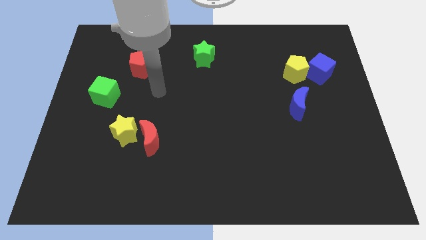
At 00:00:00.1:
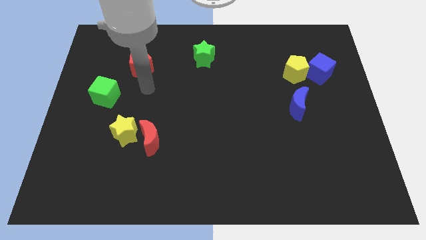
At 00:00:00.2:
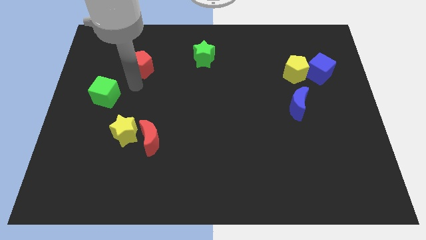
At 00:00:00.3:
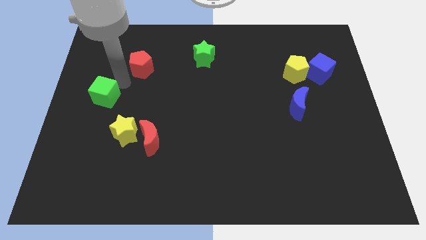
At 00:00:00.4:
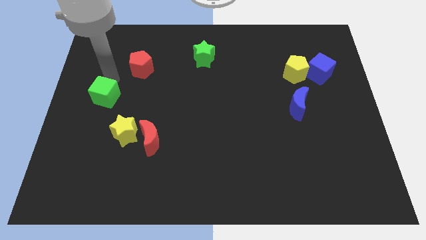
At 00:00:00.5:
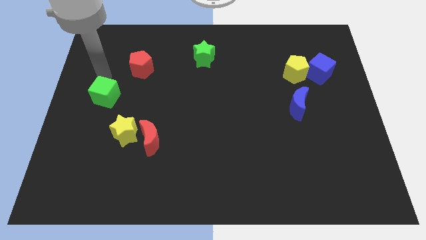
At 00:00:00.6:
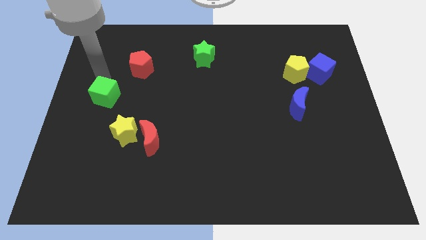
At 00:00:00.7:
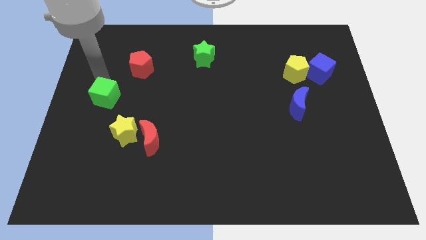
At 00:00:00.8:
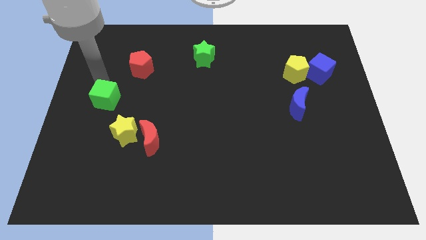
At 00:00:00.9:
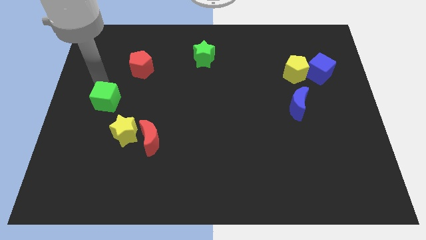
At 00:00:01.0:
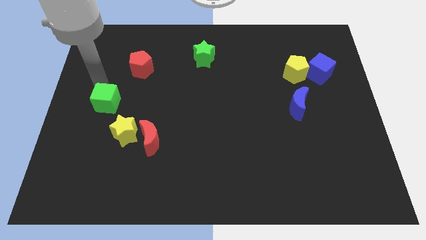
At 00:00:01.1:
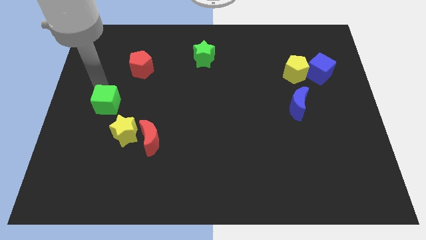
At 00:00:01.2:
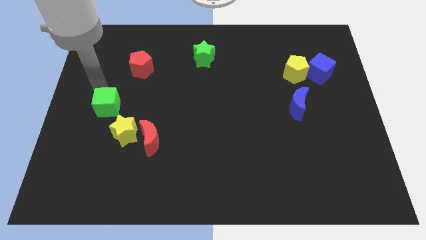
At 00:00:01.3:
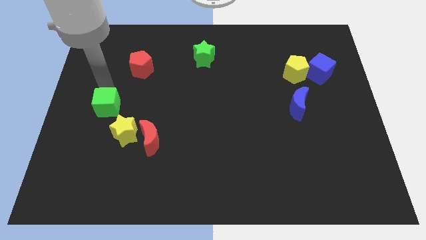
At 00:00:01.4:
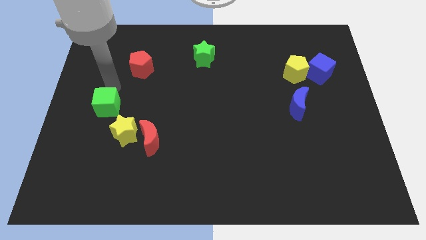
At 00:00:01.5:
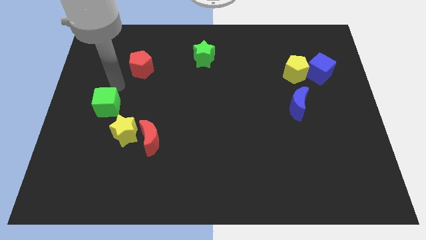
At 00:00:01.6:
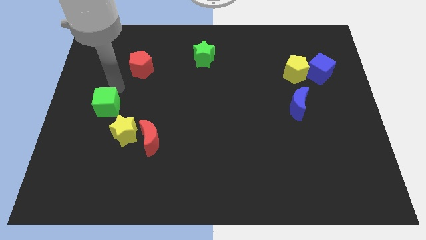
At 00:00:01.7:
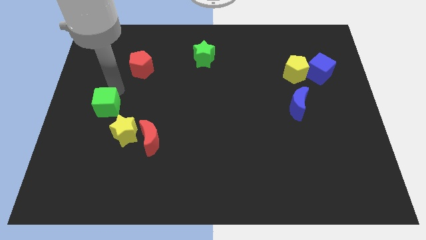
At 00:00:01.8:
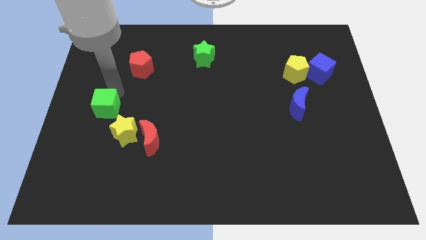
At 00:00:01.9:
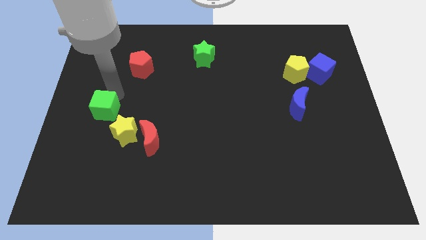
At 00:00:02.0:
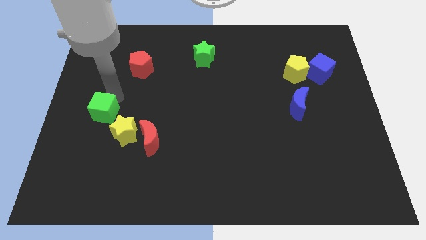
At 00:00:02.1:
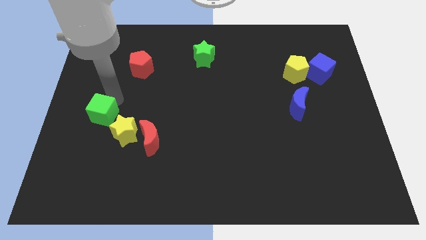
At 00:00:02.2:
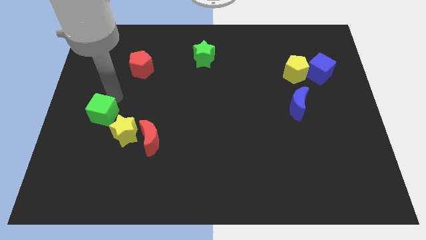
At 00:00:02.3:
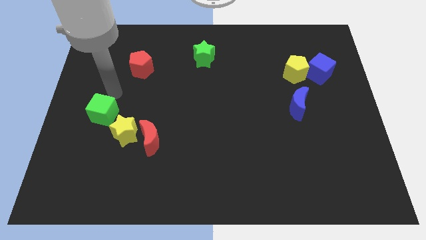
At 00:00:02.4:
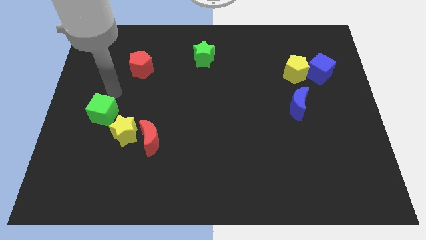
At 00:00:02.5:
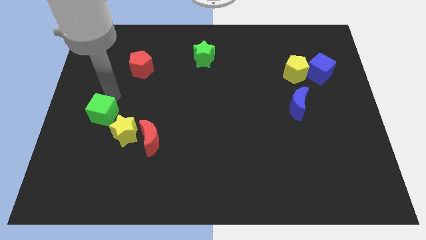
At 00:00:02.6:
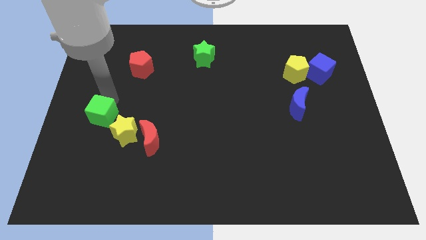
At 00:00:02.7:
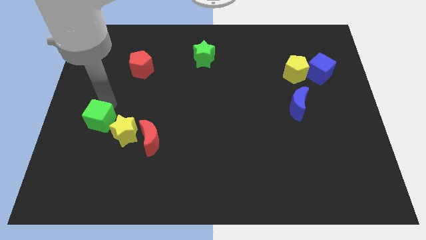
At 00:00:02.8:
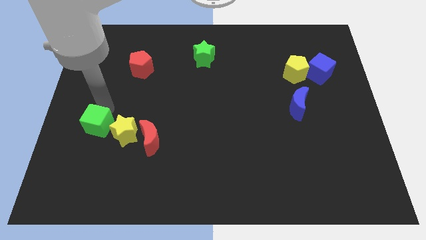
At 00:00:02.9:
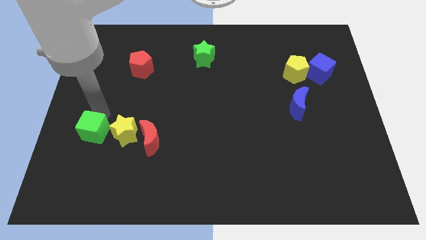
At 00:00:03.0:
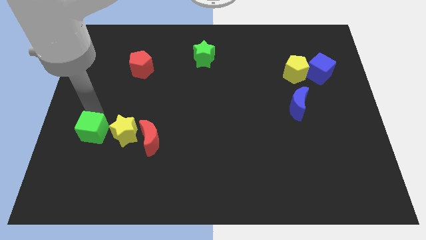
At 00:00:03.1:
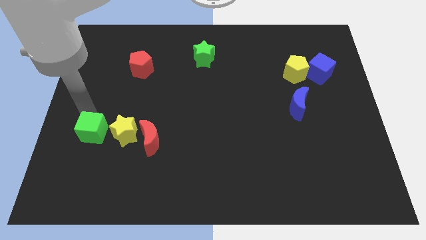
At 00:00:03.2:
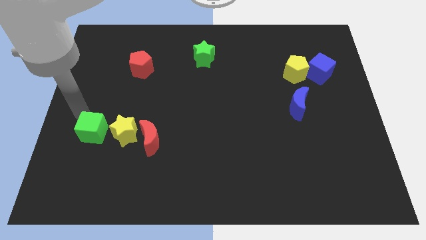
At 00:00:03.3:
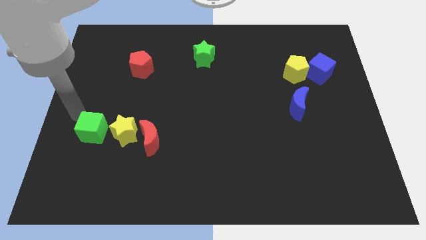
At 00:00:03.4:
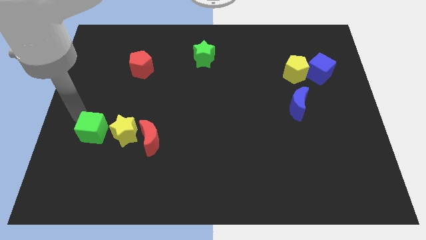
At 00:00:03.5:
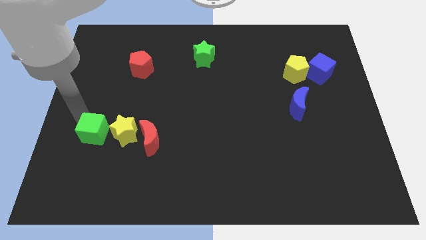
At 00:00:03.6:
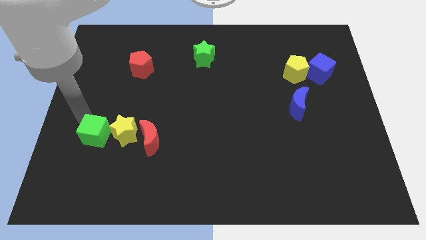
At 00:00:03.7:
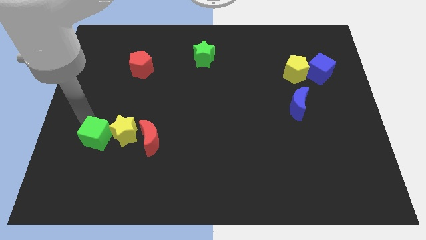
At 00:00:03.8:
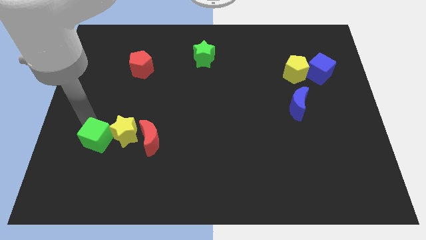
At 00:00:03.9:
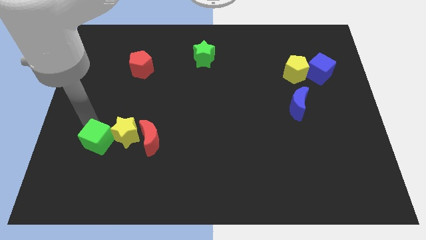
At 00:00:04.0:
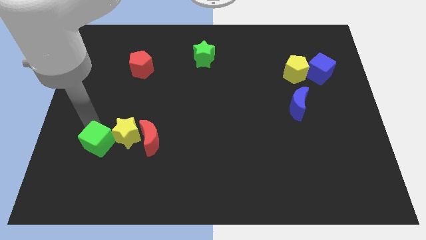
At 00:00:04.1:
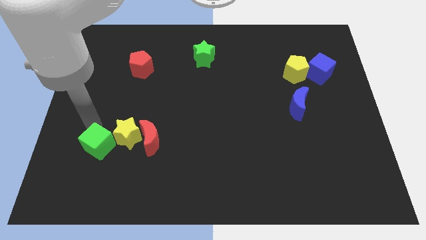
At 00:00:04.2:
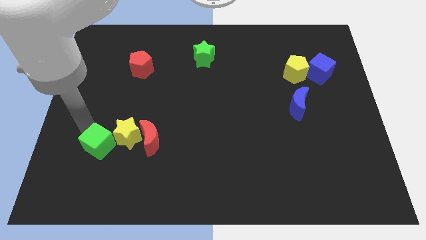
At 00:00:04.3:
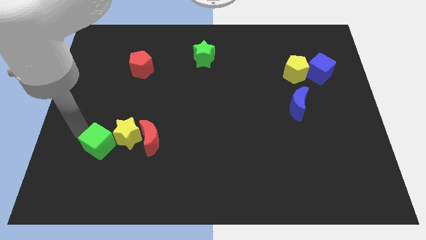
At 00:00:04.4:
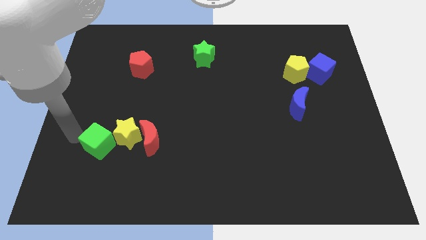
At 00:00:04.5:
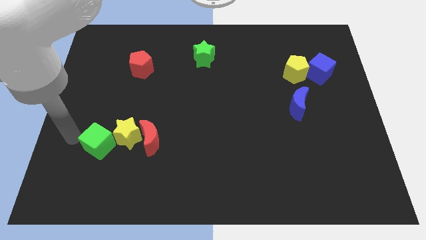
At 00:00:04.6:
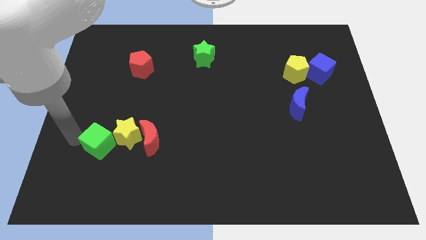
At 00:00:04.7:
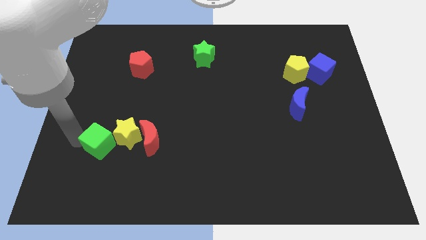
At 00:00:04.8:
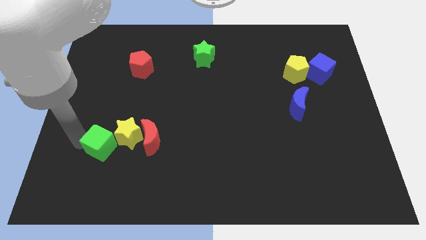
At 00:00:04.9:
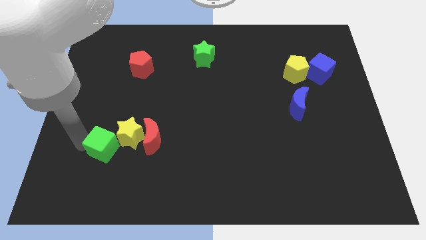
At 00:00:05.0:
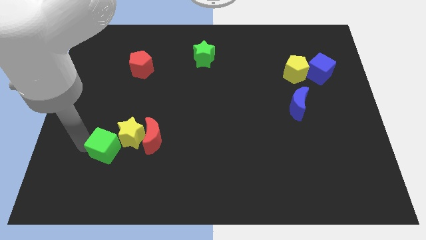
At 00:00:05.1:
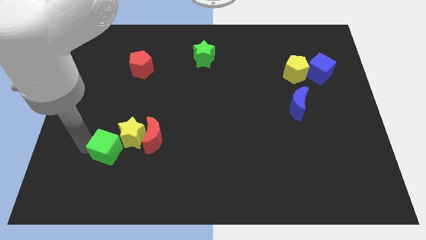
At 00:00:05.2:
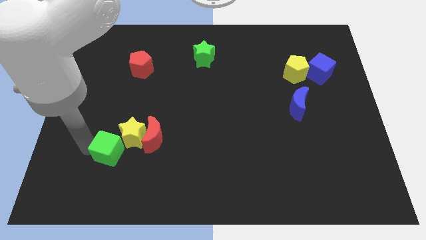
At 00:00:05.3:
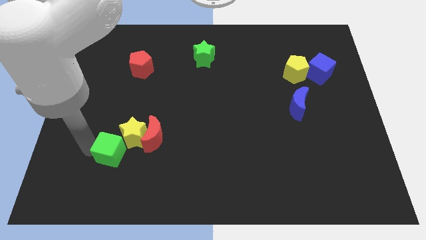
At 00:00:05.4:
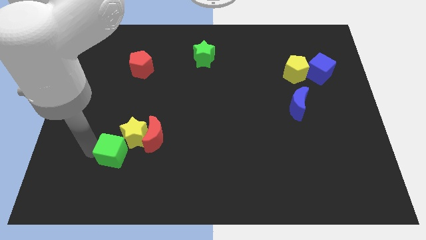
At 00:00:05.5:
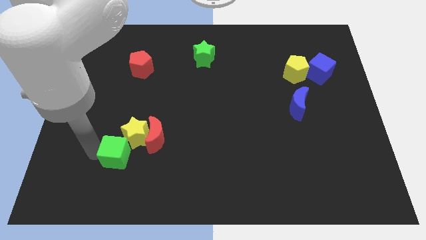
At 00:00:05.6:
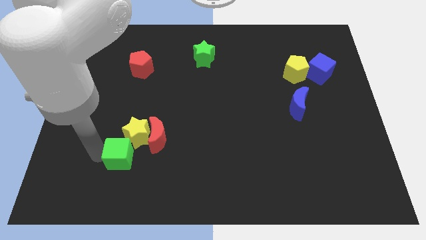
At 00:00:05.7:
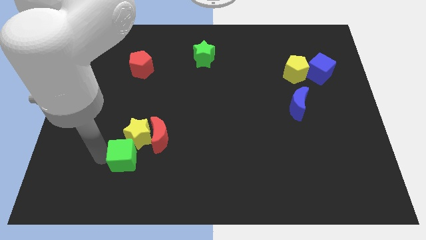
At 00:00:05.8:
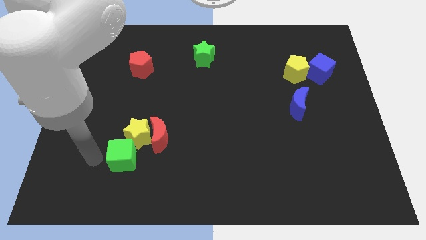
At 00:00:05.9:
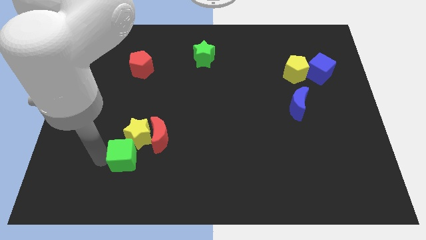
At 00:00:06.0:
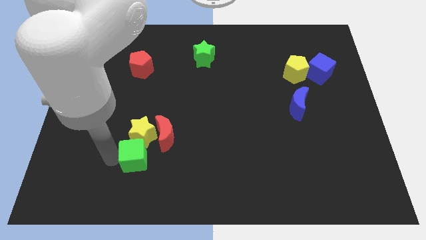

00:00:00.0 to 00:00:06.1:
put the green cube to the bottom right of the yellow star

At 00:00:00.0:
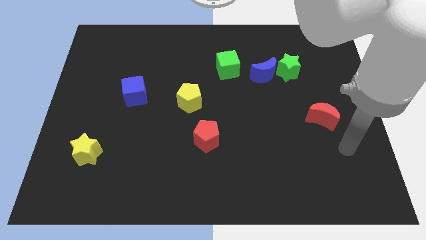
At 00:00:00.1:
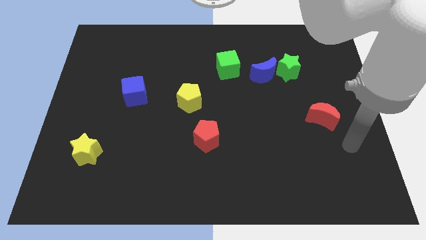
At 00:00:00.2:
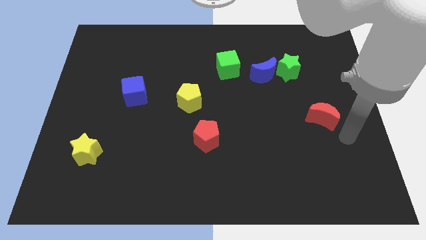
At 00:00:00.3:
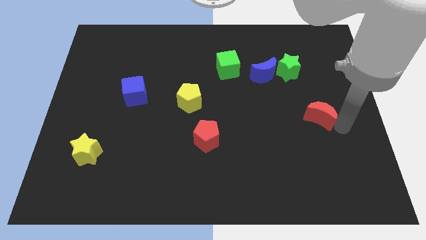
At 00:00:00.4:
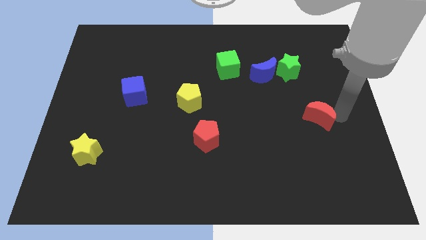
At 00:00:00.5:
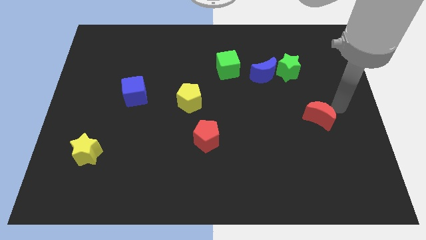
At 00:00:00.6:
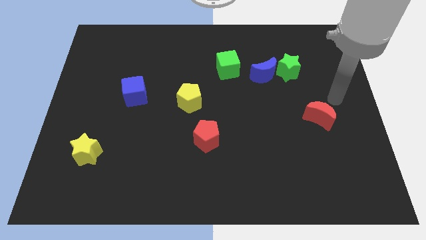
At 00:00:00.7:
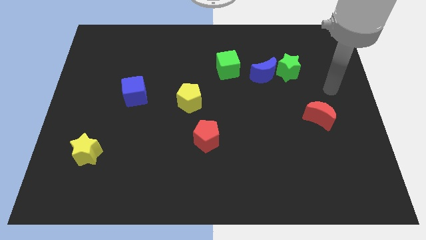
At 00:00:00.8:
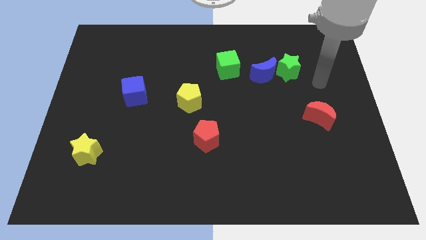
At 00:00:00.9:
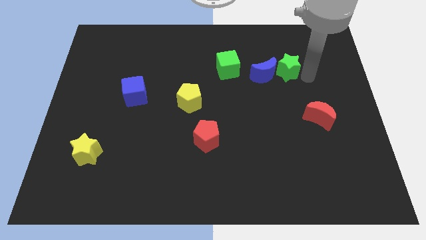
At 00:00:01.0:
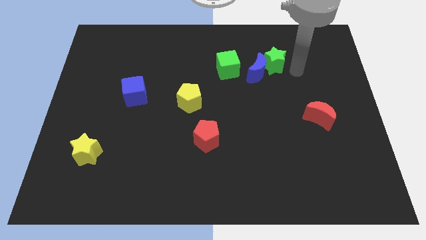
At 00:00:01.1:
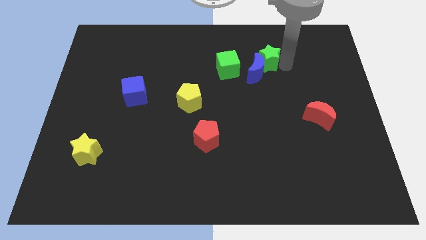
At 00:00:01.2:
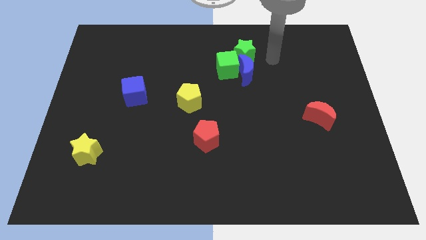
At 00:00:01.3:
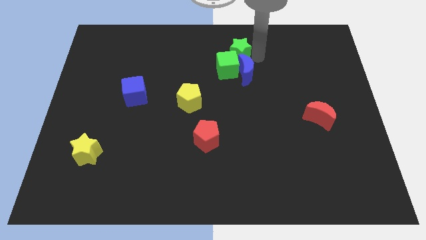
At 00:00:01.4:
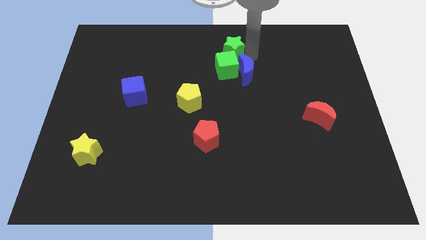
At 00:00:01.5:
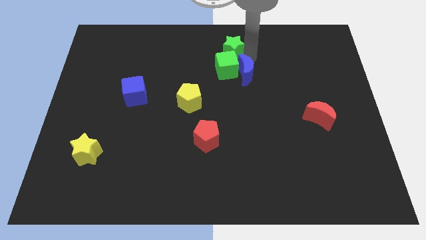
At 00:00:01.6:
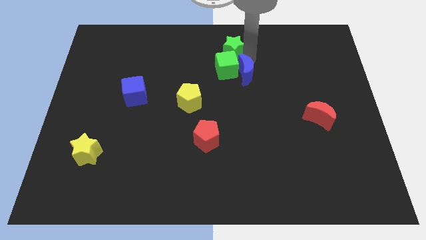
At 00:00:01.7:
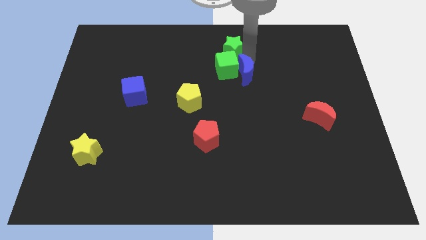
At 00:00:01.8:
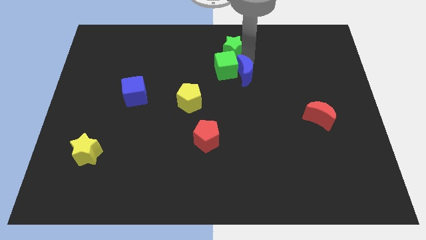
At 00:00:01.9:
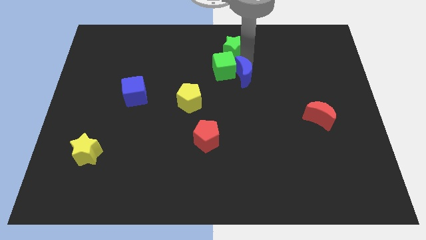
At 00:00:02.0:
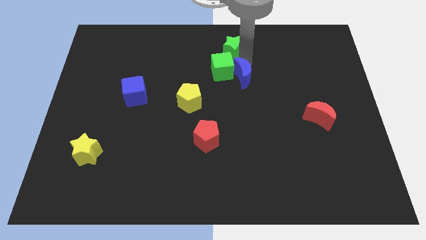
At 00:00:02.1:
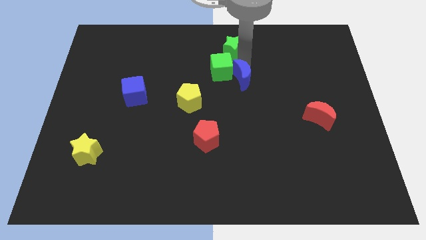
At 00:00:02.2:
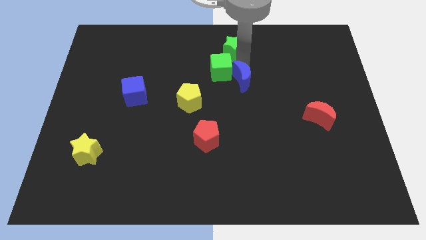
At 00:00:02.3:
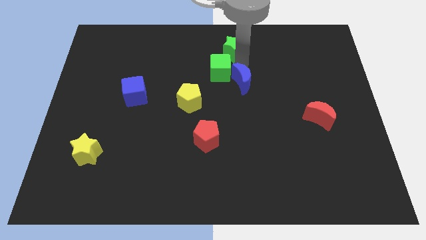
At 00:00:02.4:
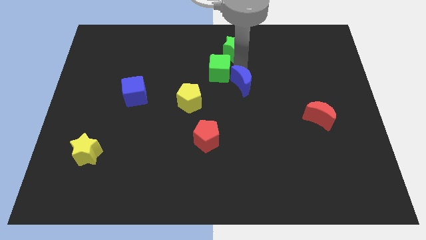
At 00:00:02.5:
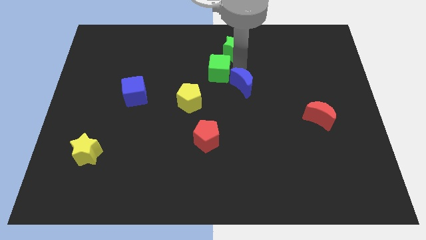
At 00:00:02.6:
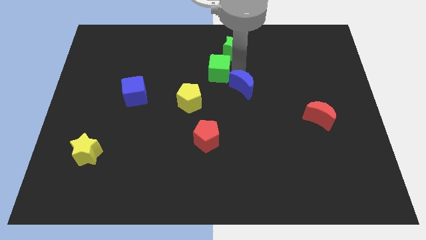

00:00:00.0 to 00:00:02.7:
move the blue moon to the right side of the yellow pentagon
